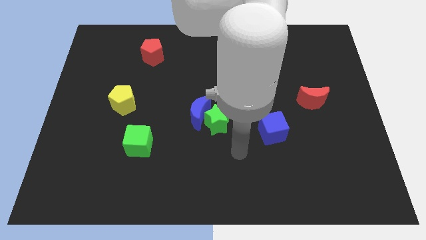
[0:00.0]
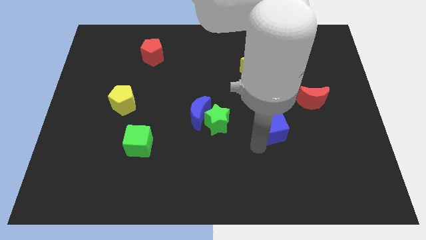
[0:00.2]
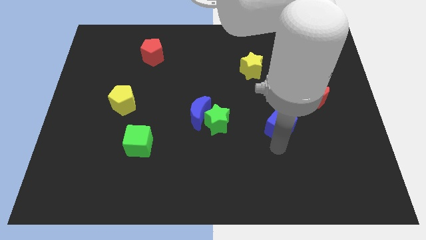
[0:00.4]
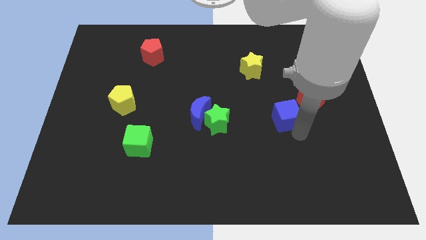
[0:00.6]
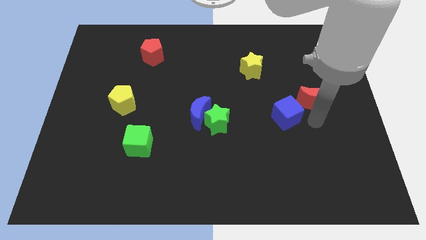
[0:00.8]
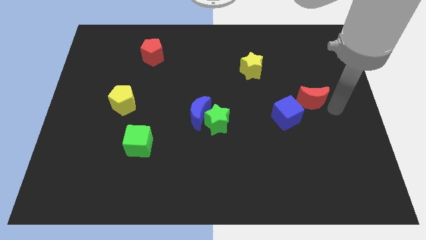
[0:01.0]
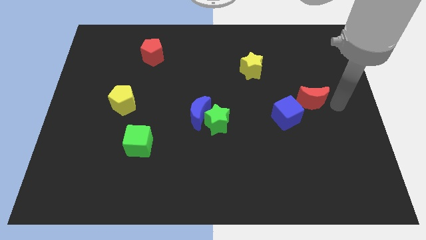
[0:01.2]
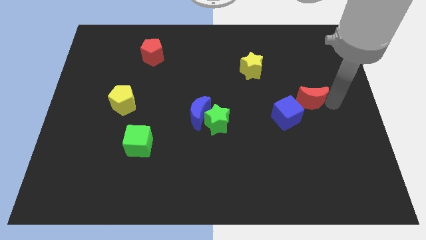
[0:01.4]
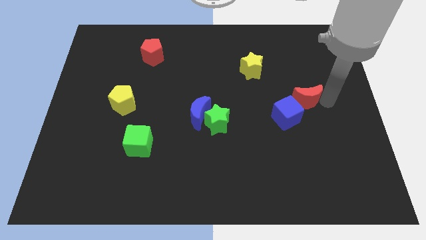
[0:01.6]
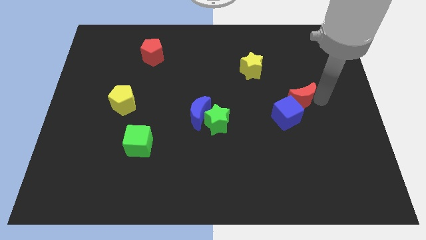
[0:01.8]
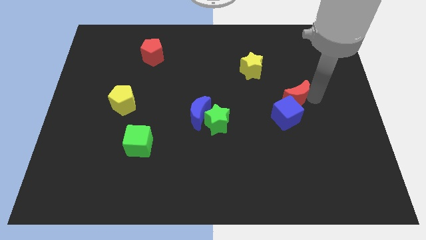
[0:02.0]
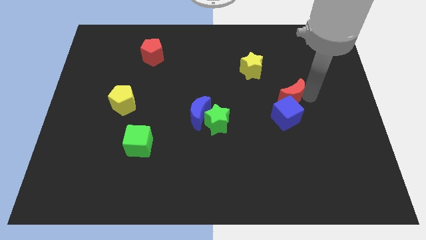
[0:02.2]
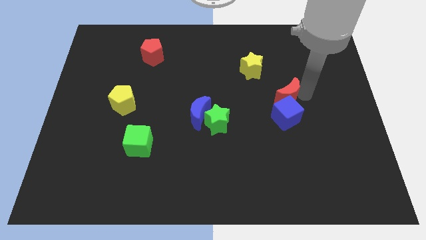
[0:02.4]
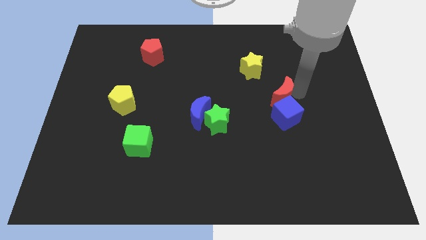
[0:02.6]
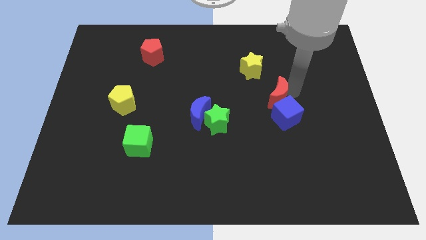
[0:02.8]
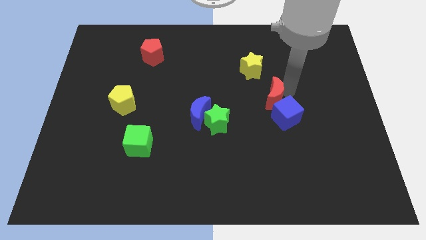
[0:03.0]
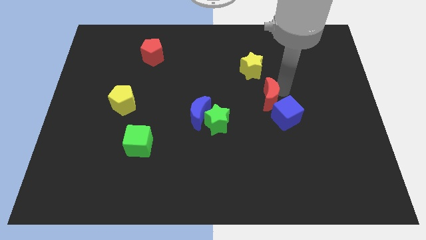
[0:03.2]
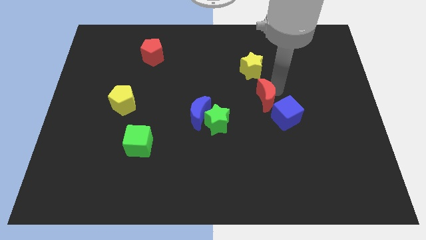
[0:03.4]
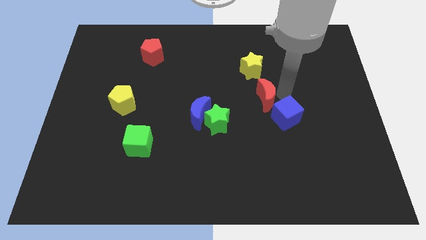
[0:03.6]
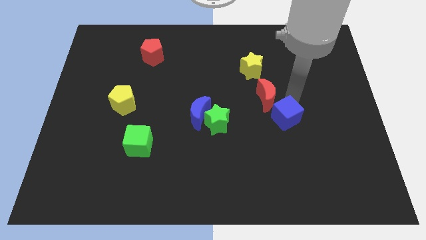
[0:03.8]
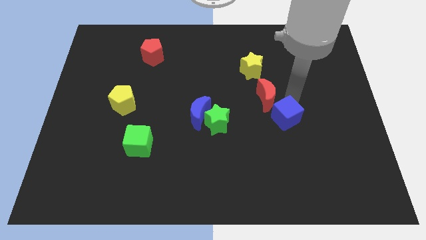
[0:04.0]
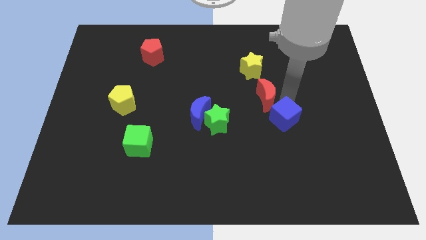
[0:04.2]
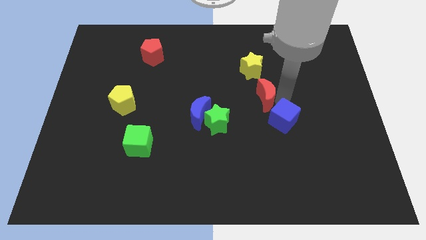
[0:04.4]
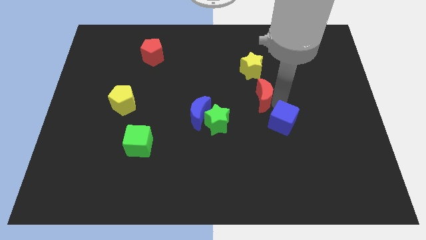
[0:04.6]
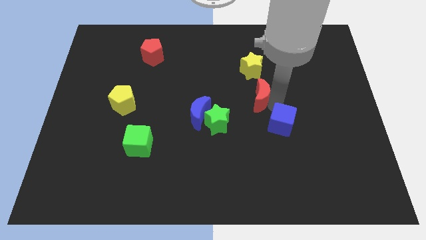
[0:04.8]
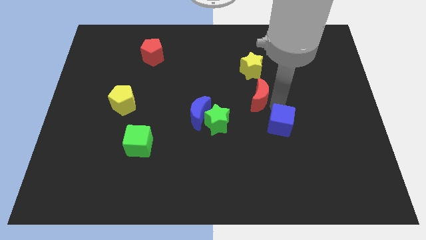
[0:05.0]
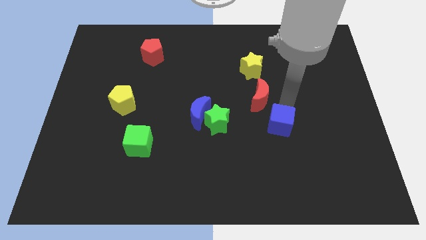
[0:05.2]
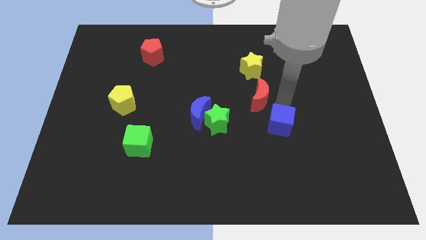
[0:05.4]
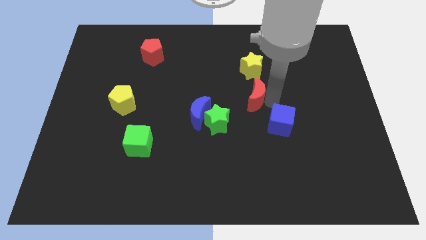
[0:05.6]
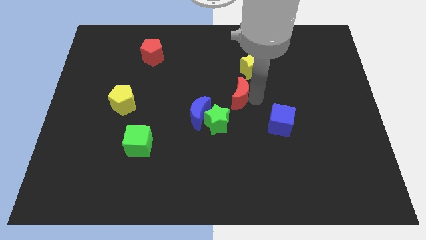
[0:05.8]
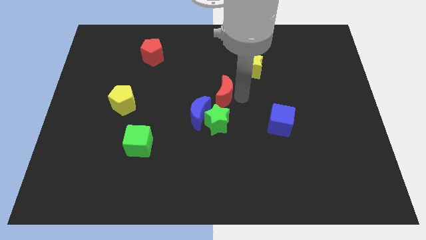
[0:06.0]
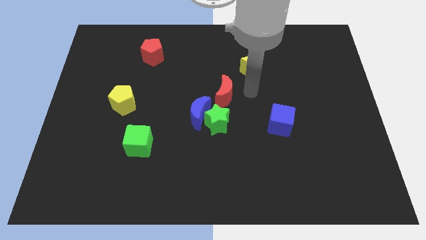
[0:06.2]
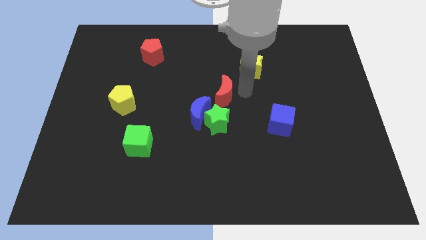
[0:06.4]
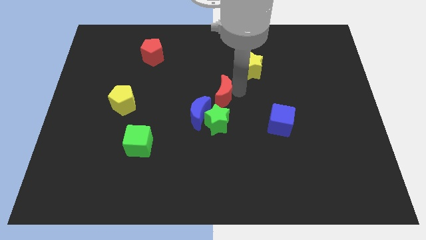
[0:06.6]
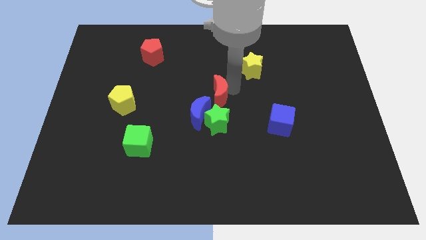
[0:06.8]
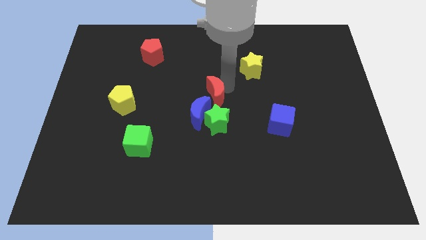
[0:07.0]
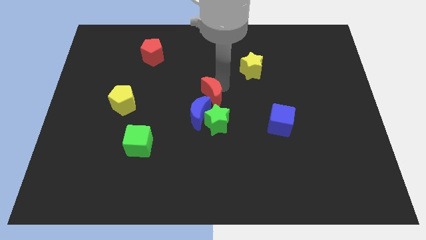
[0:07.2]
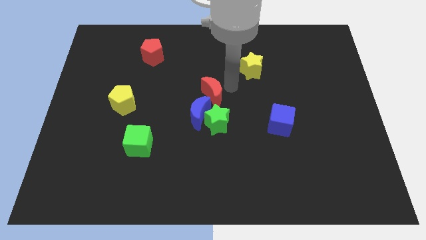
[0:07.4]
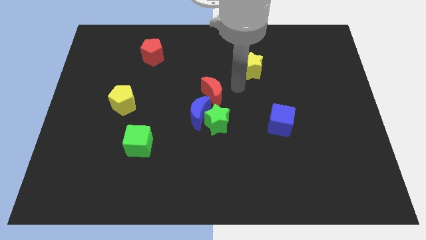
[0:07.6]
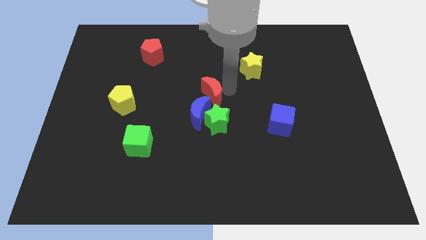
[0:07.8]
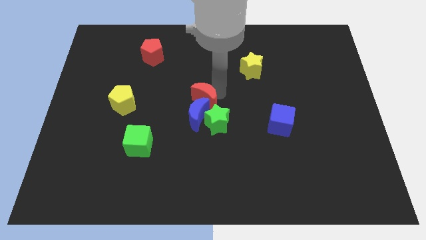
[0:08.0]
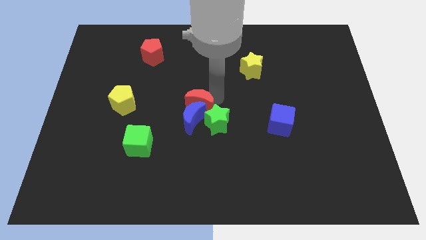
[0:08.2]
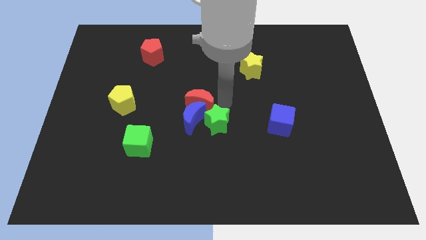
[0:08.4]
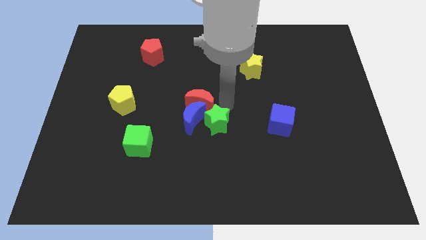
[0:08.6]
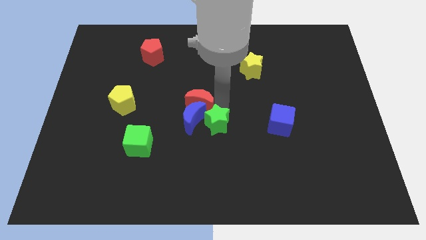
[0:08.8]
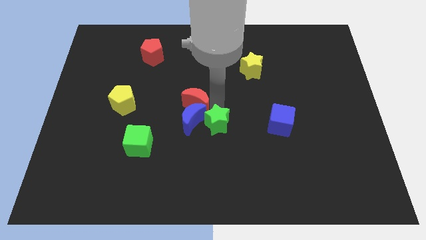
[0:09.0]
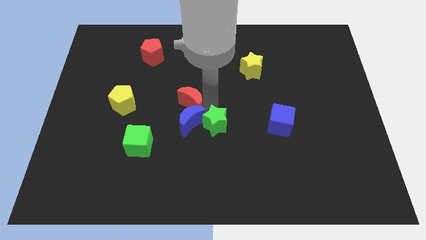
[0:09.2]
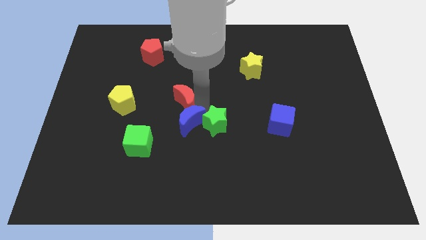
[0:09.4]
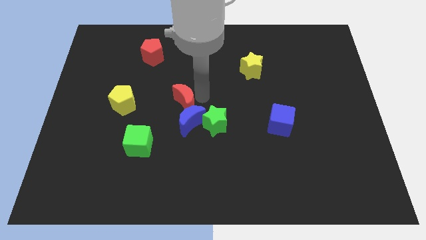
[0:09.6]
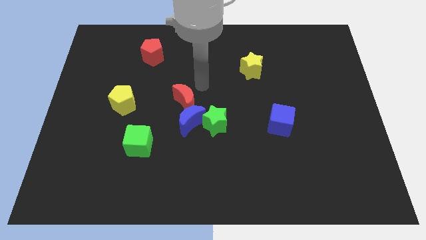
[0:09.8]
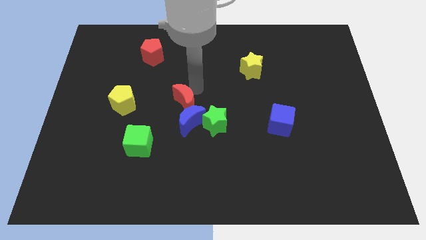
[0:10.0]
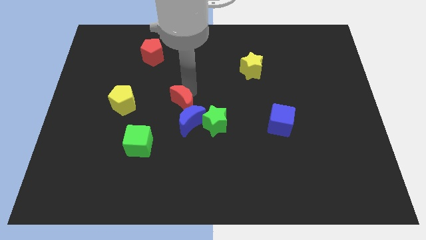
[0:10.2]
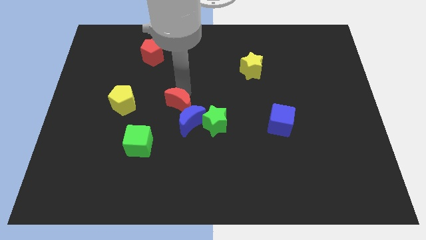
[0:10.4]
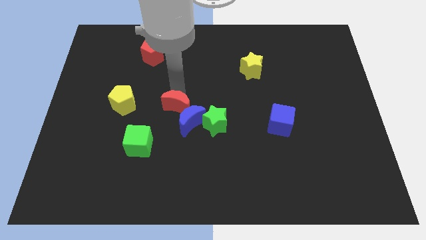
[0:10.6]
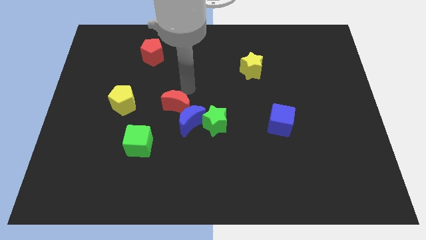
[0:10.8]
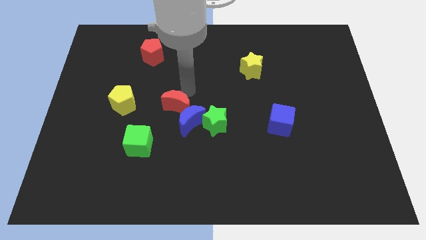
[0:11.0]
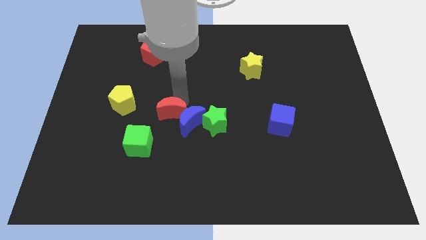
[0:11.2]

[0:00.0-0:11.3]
slide the red moon diagonally up and to the right of the green cube

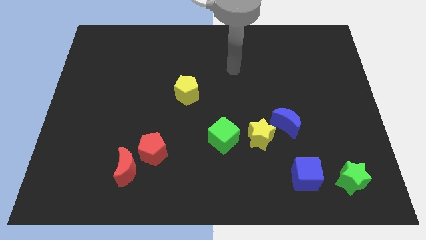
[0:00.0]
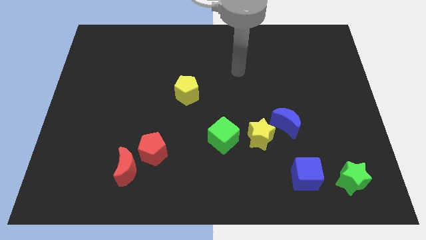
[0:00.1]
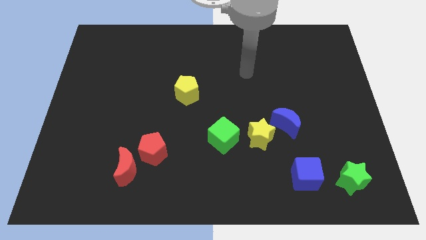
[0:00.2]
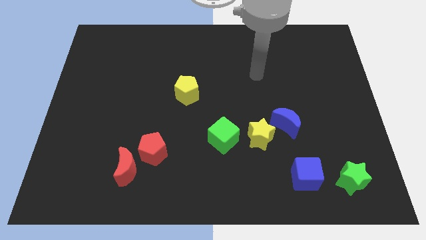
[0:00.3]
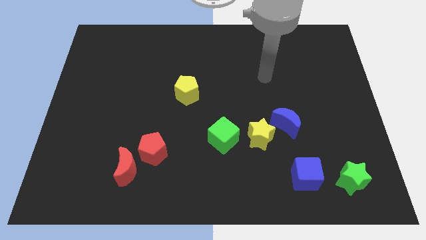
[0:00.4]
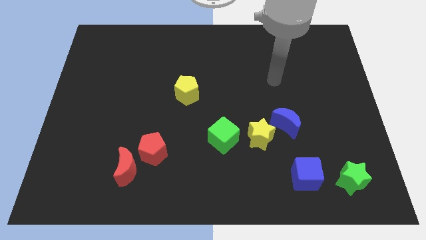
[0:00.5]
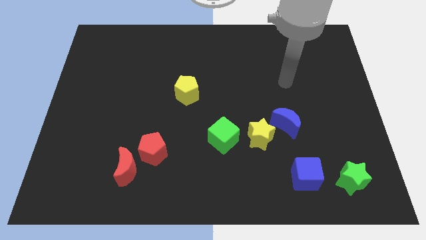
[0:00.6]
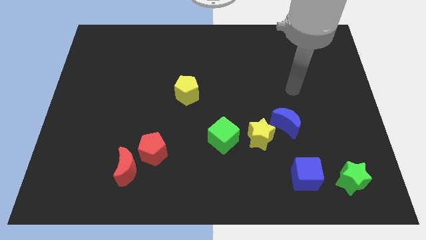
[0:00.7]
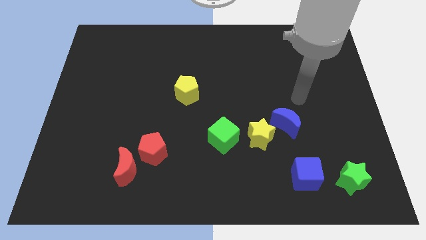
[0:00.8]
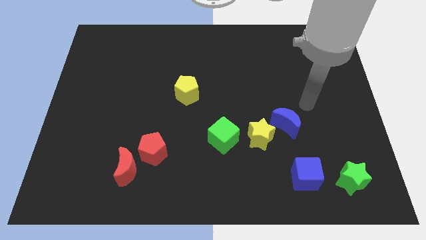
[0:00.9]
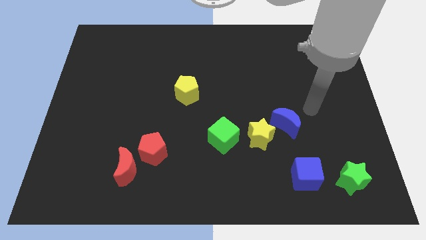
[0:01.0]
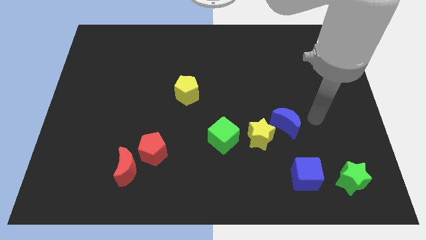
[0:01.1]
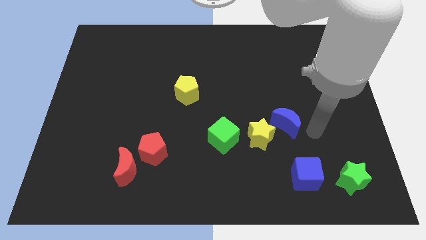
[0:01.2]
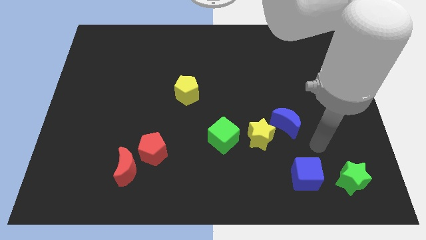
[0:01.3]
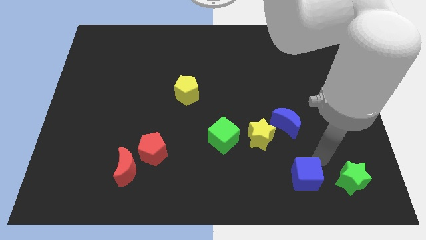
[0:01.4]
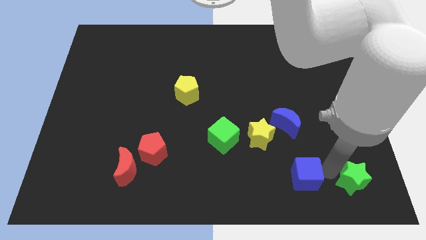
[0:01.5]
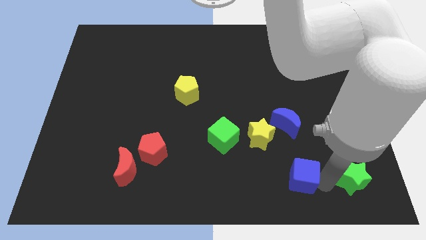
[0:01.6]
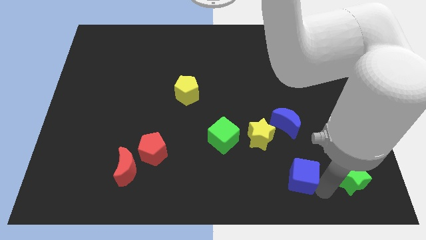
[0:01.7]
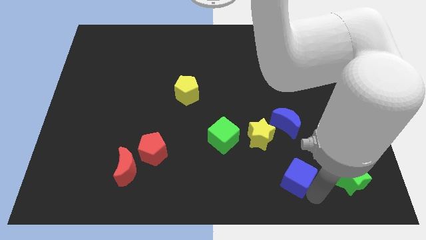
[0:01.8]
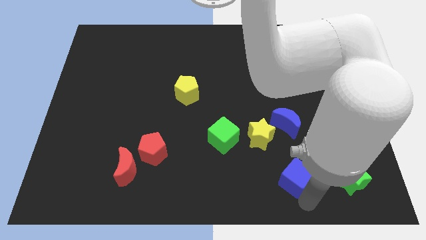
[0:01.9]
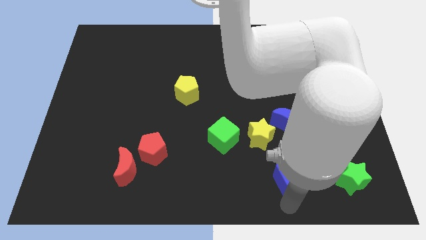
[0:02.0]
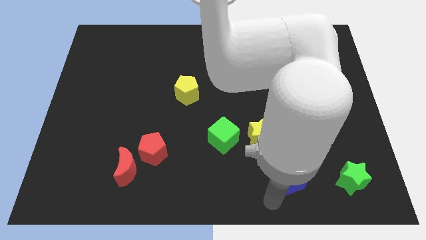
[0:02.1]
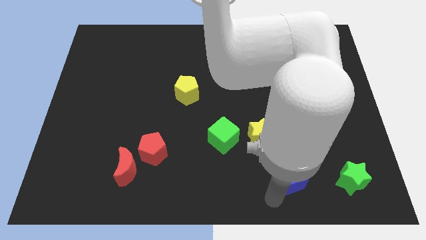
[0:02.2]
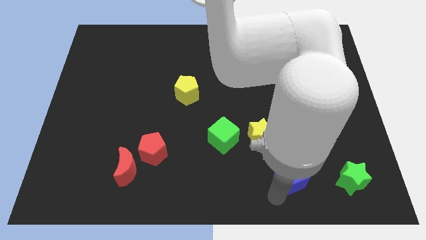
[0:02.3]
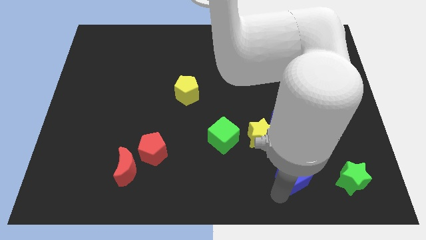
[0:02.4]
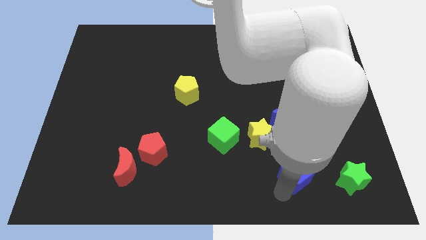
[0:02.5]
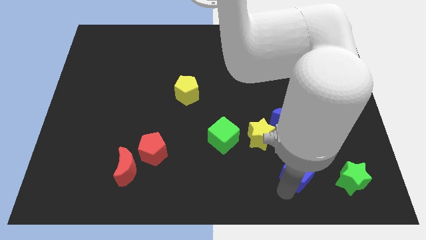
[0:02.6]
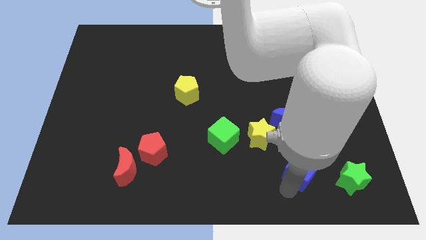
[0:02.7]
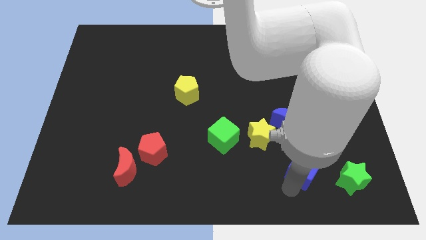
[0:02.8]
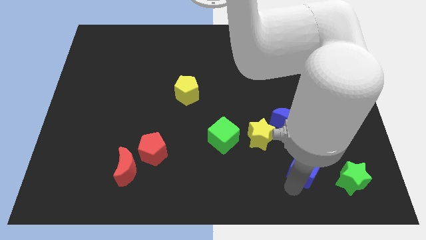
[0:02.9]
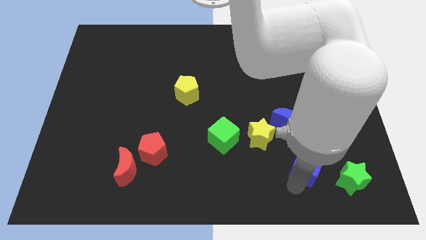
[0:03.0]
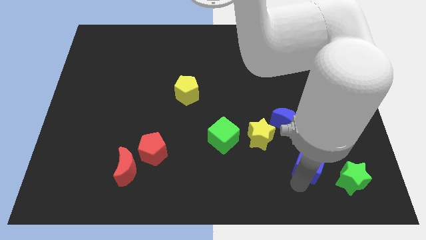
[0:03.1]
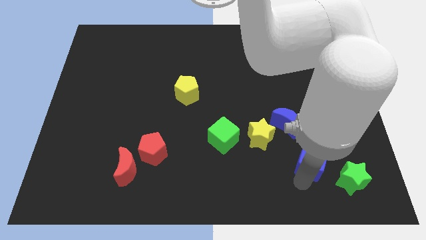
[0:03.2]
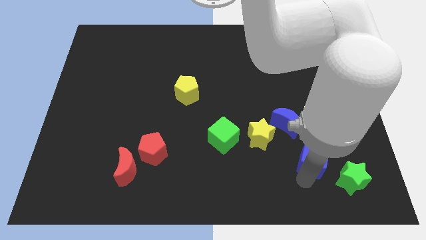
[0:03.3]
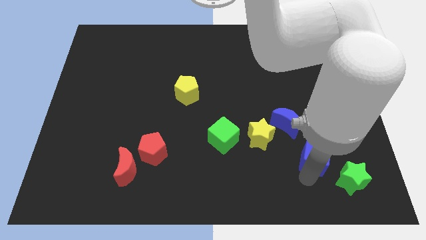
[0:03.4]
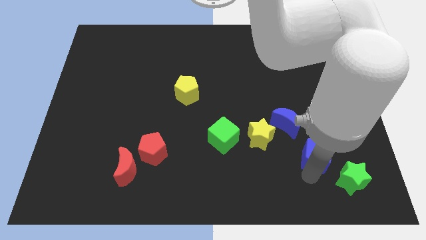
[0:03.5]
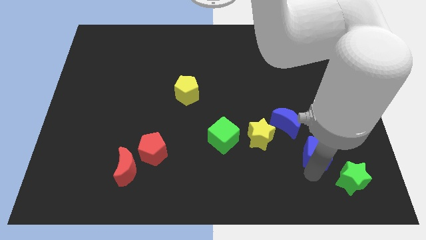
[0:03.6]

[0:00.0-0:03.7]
slide the blue cube to the right side of the yellow star
